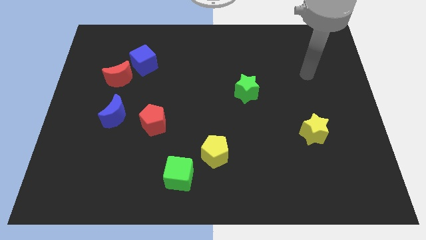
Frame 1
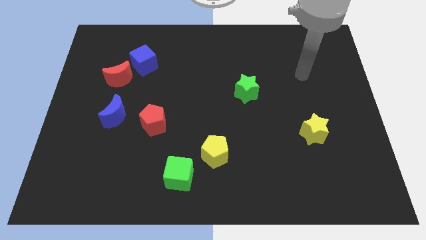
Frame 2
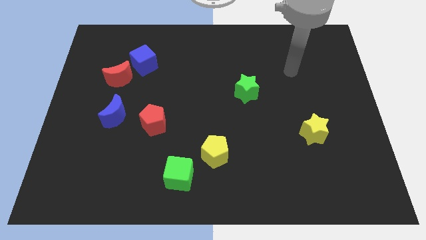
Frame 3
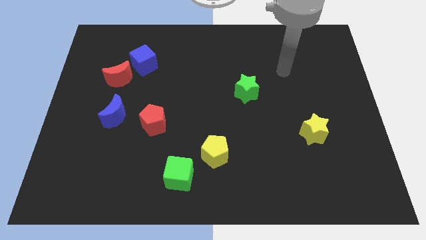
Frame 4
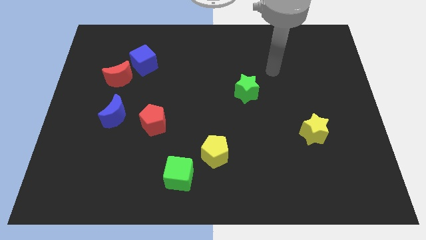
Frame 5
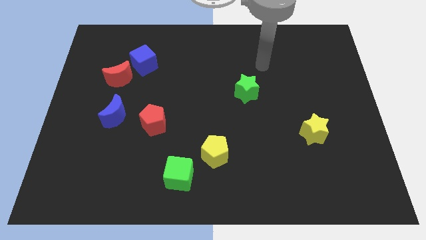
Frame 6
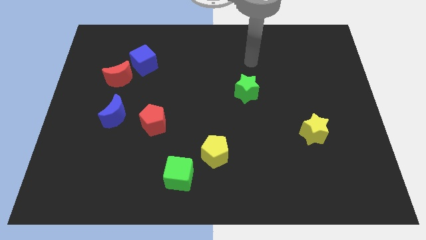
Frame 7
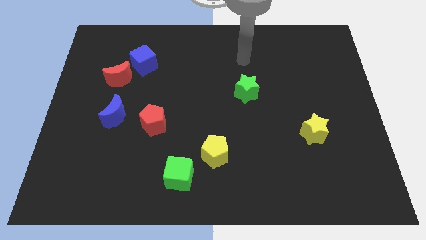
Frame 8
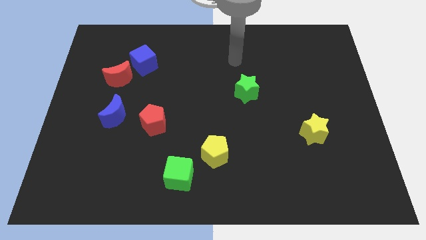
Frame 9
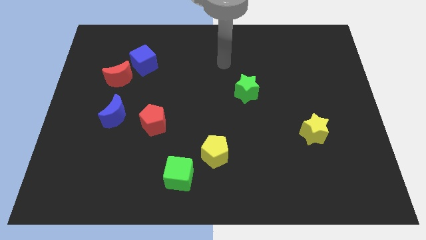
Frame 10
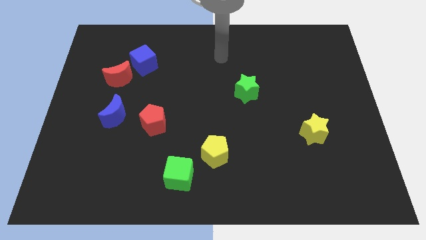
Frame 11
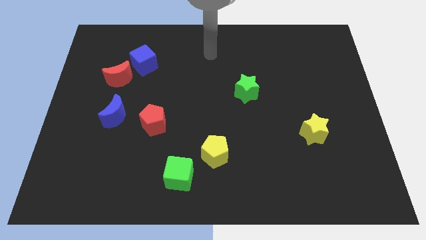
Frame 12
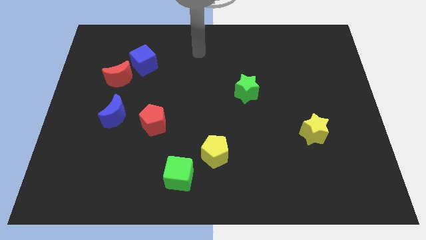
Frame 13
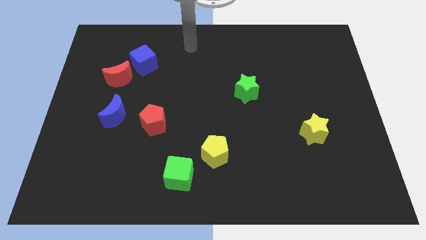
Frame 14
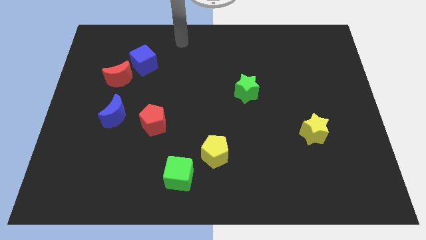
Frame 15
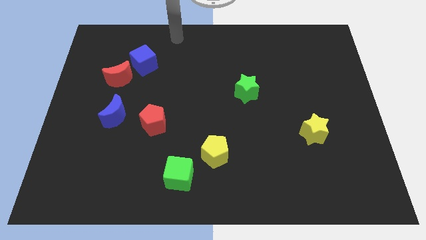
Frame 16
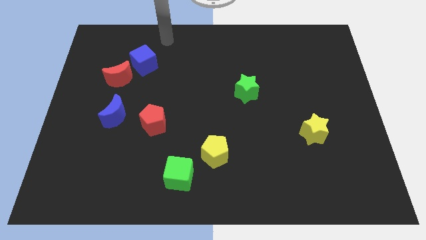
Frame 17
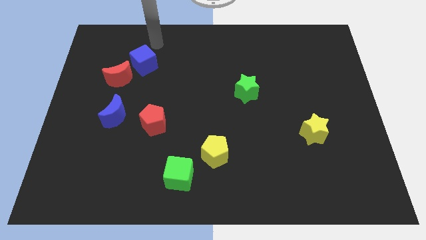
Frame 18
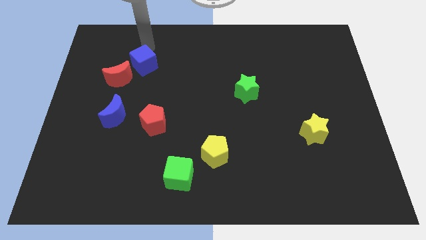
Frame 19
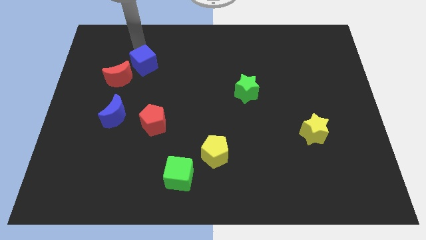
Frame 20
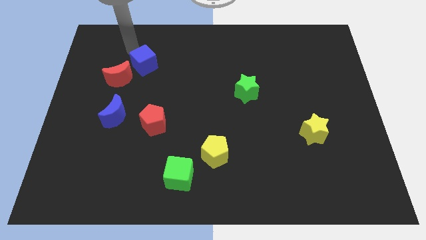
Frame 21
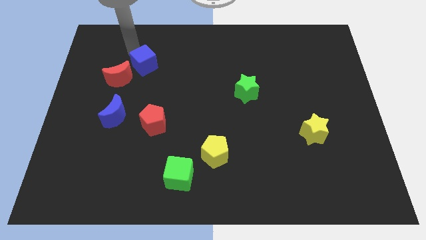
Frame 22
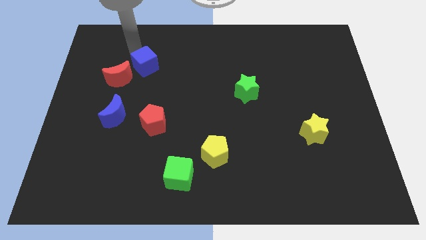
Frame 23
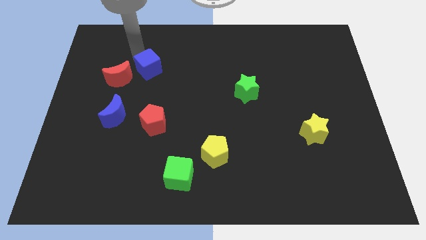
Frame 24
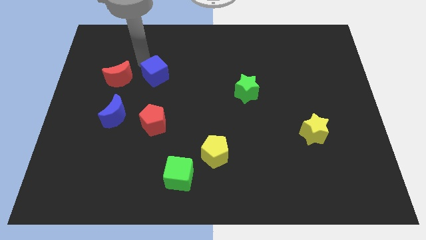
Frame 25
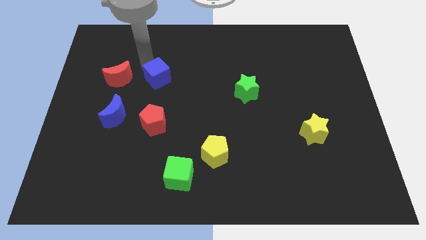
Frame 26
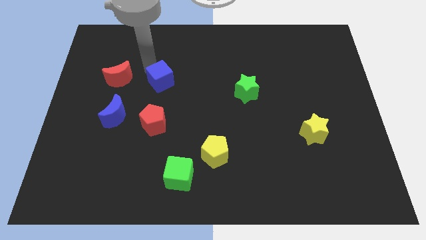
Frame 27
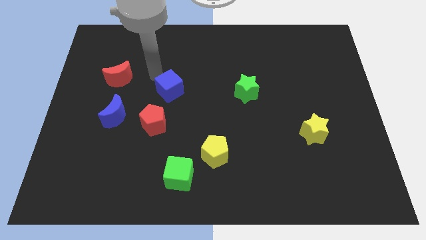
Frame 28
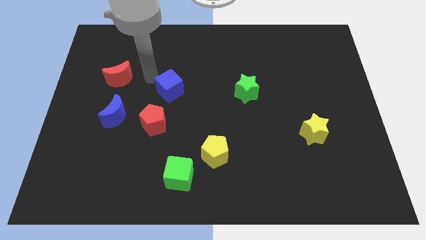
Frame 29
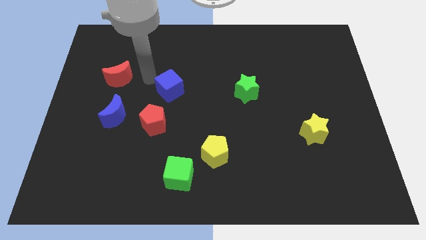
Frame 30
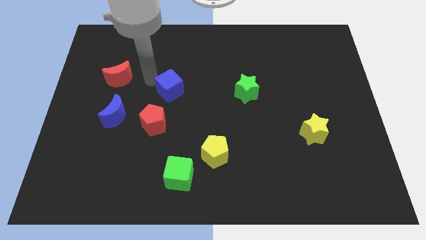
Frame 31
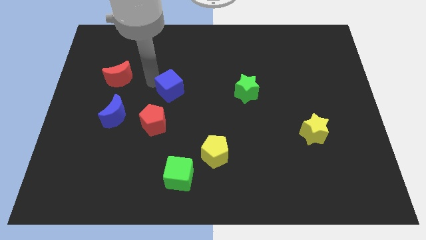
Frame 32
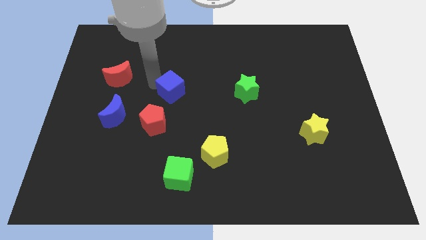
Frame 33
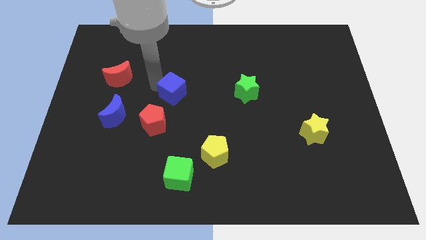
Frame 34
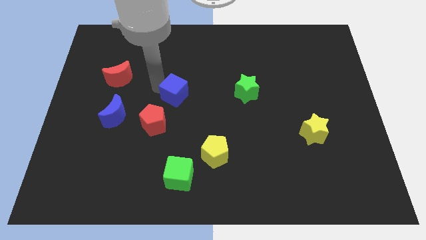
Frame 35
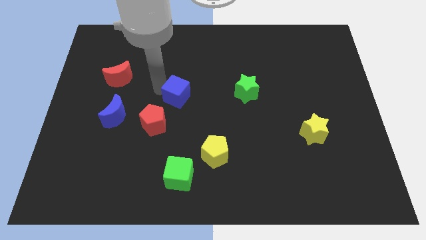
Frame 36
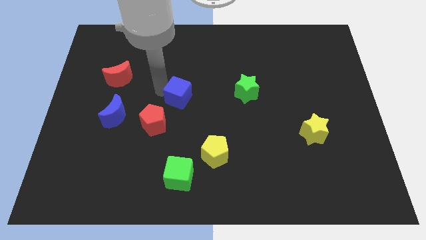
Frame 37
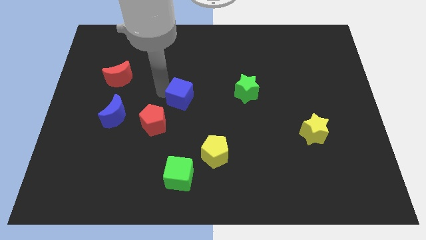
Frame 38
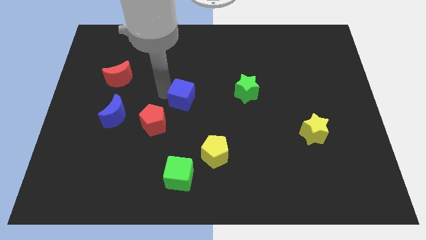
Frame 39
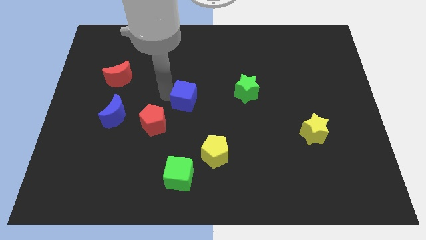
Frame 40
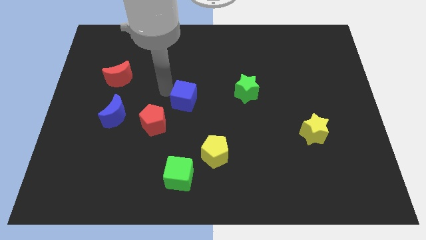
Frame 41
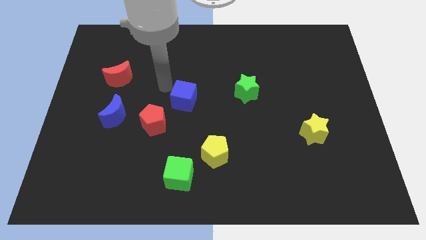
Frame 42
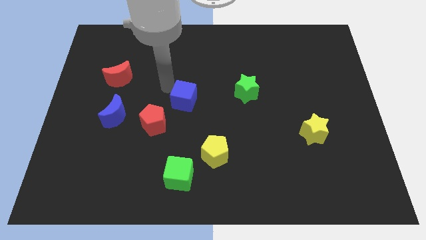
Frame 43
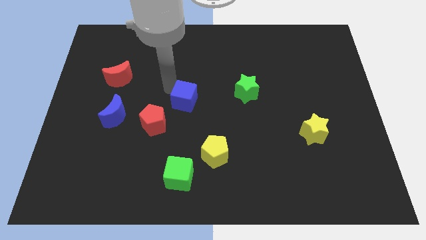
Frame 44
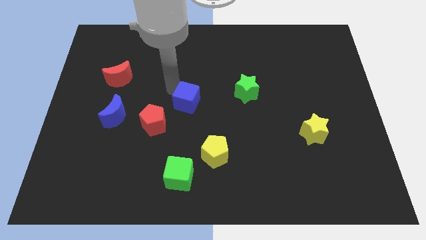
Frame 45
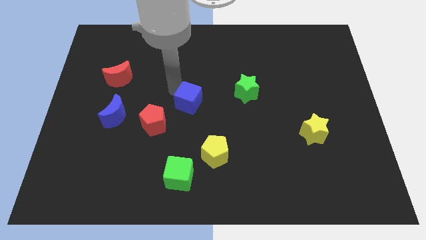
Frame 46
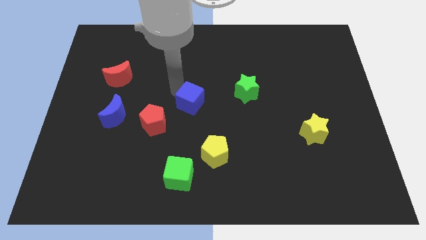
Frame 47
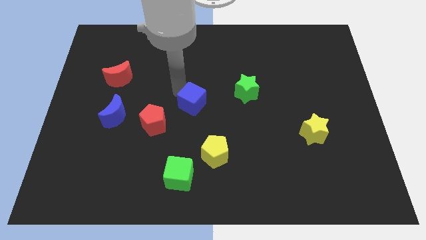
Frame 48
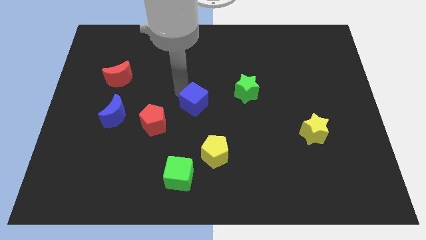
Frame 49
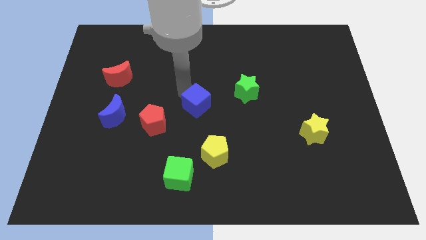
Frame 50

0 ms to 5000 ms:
move the blue cube to the top side of the yellow pentagon
